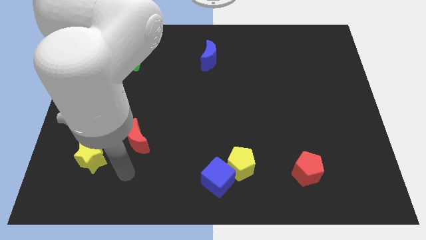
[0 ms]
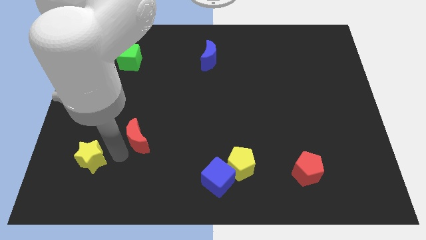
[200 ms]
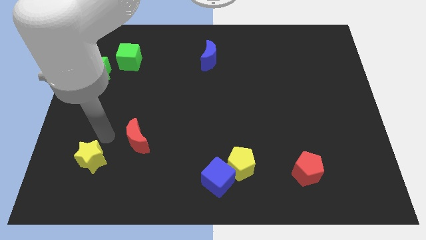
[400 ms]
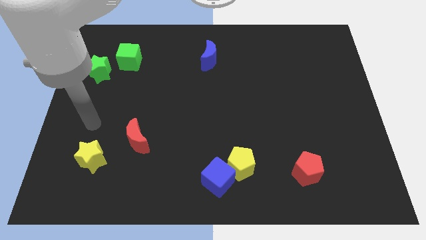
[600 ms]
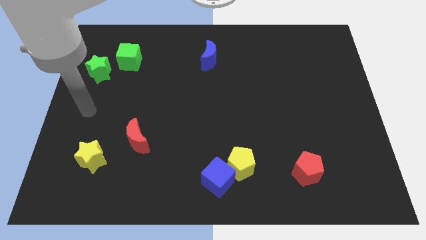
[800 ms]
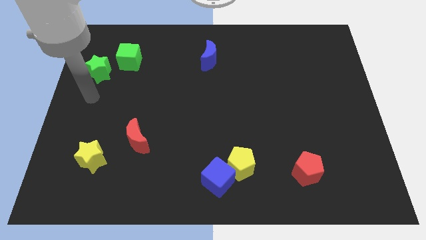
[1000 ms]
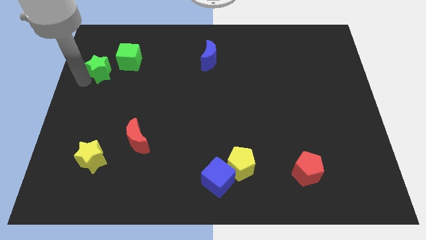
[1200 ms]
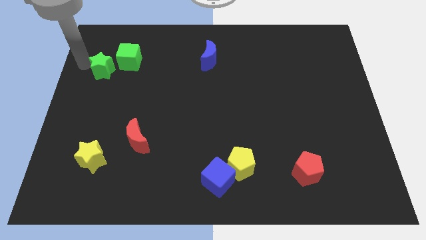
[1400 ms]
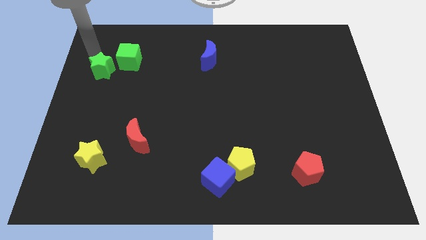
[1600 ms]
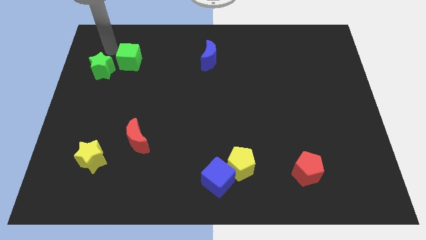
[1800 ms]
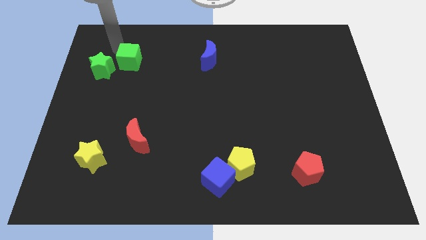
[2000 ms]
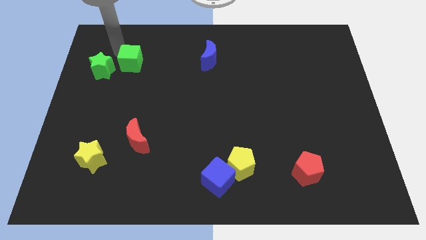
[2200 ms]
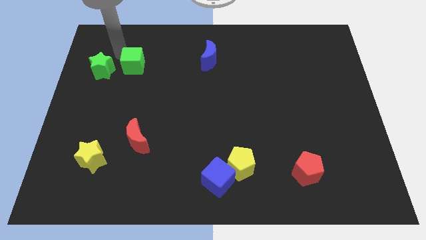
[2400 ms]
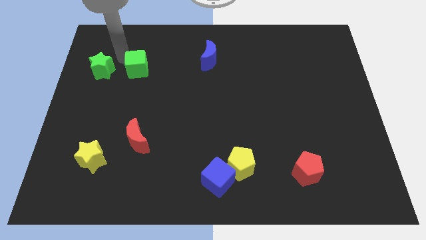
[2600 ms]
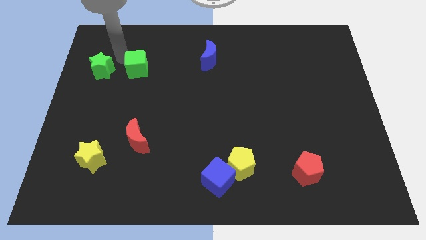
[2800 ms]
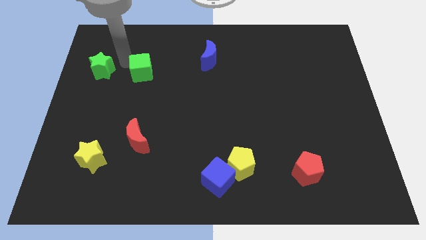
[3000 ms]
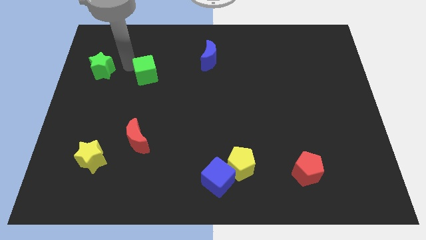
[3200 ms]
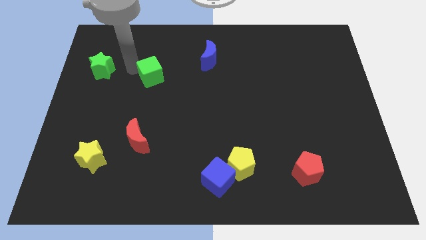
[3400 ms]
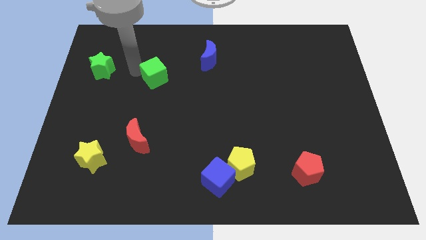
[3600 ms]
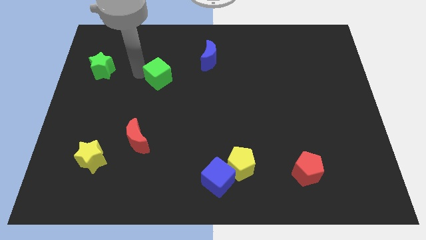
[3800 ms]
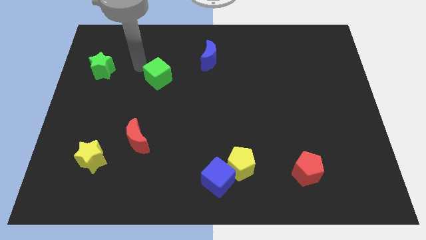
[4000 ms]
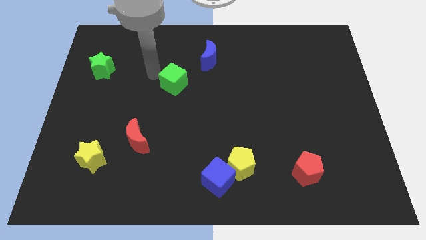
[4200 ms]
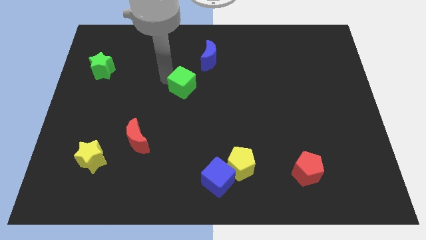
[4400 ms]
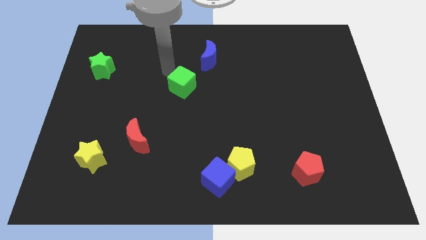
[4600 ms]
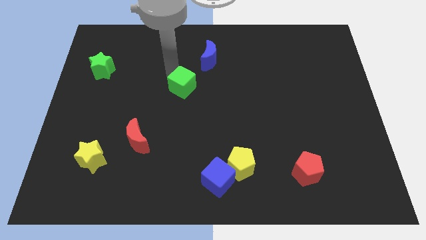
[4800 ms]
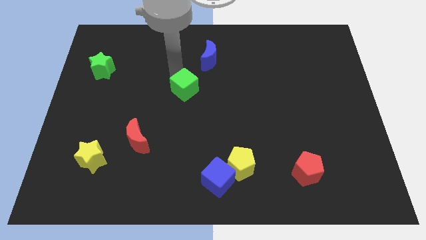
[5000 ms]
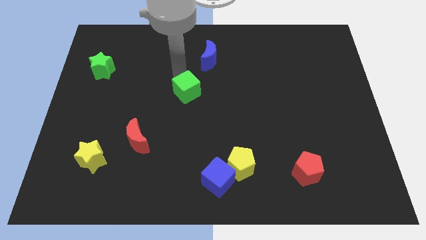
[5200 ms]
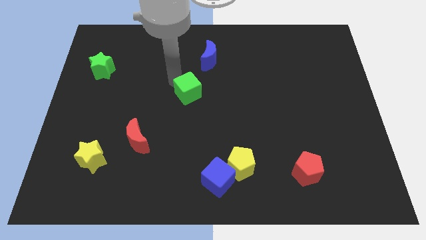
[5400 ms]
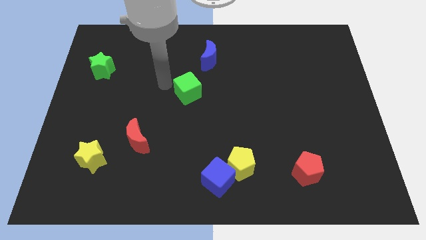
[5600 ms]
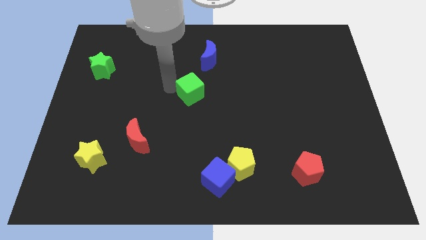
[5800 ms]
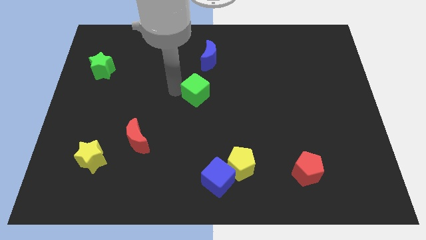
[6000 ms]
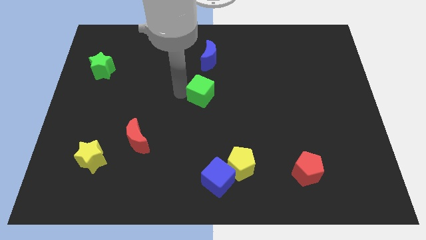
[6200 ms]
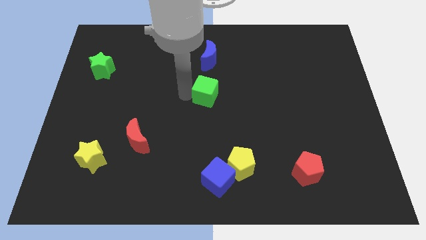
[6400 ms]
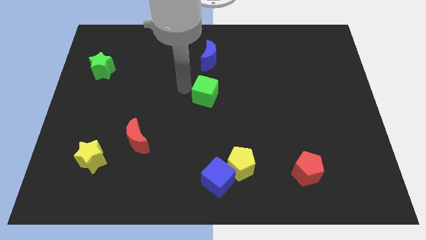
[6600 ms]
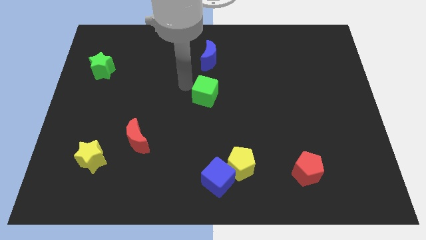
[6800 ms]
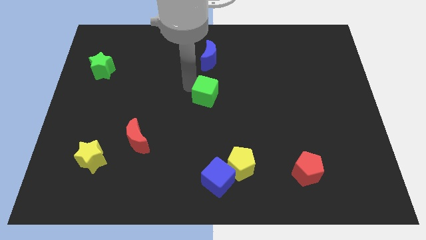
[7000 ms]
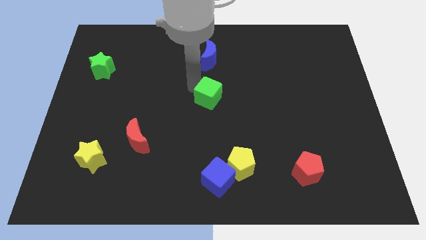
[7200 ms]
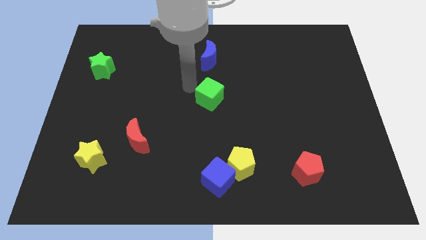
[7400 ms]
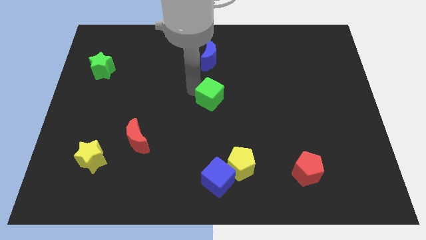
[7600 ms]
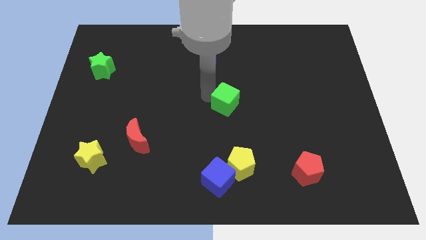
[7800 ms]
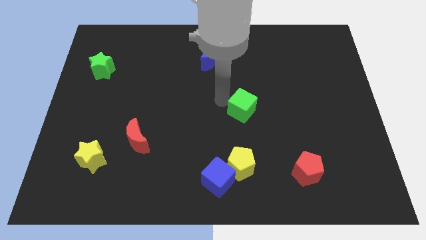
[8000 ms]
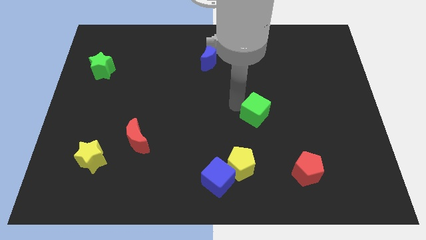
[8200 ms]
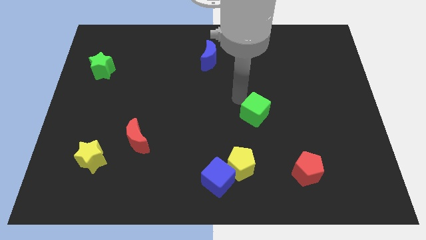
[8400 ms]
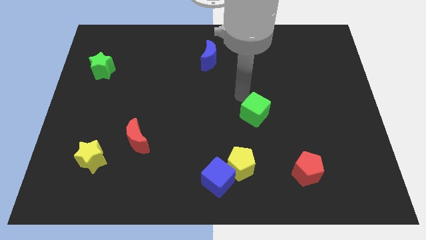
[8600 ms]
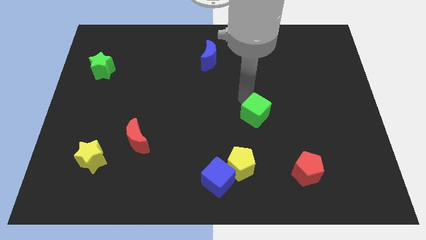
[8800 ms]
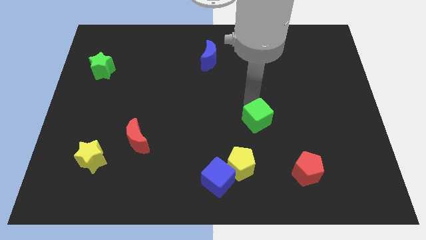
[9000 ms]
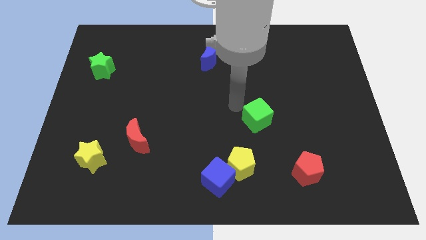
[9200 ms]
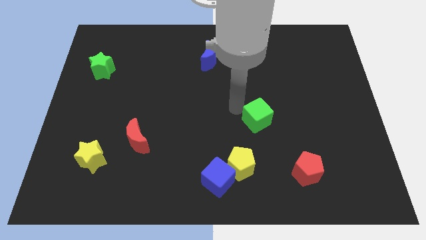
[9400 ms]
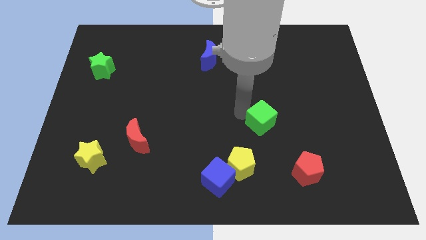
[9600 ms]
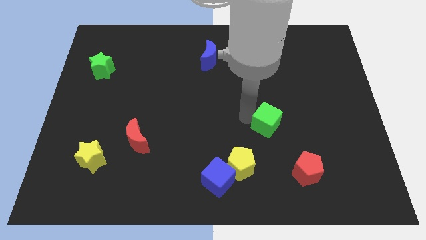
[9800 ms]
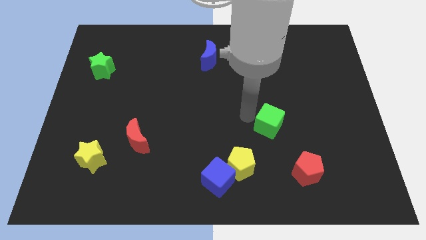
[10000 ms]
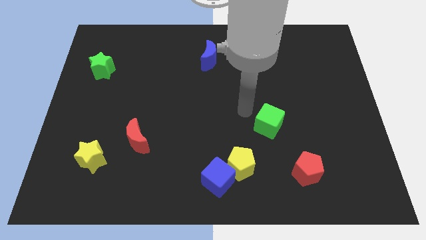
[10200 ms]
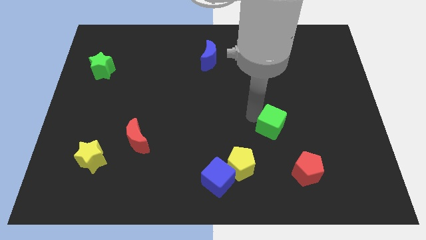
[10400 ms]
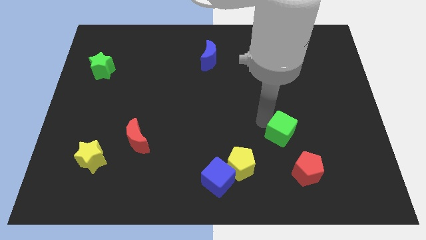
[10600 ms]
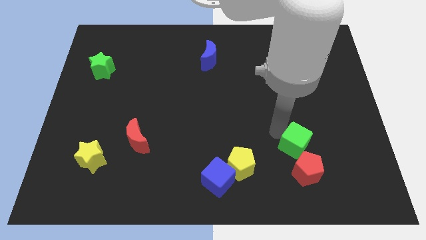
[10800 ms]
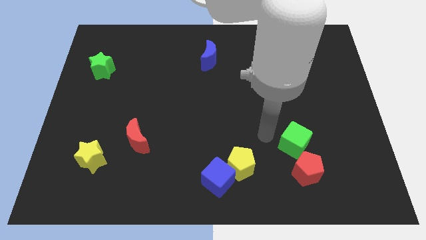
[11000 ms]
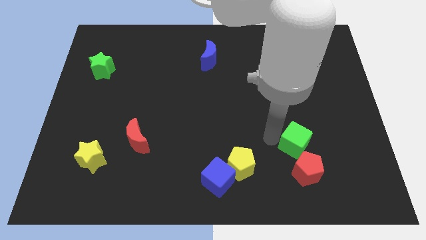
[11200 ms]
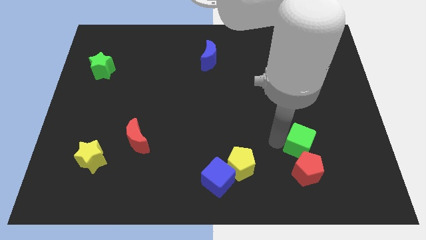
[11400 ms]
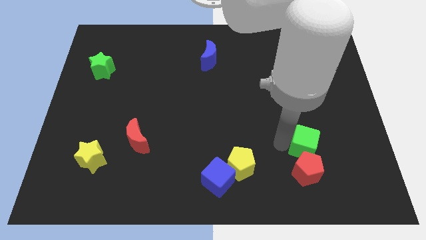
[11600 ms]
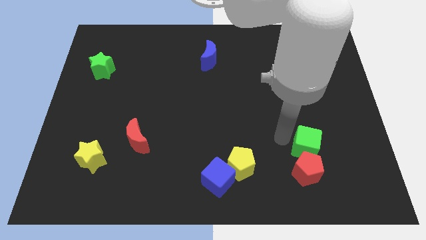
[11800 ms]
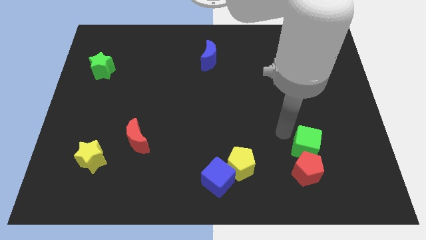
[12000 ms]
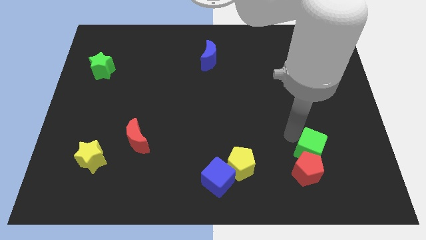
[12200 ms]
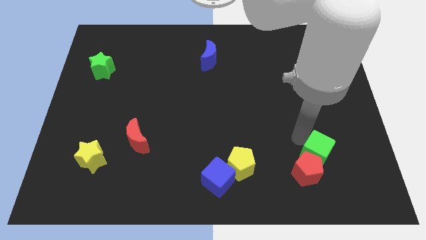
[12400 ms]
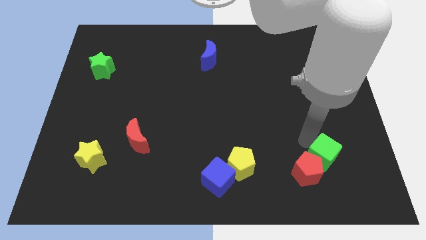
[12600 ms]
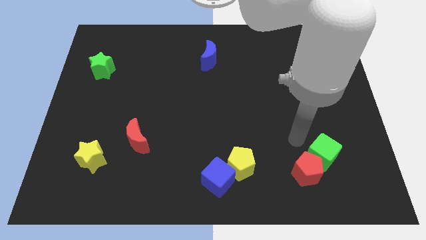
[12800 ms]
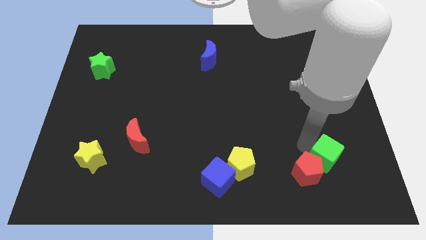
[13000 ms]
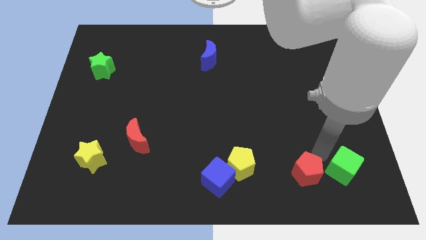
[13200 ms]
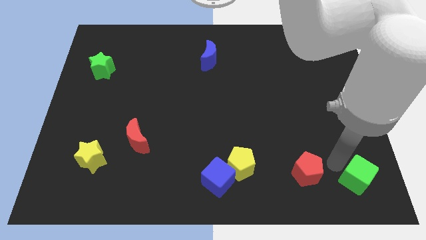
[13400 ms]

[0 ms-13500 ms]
move the green cube to the bottom right

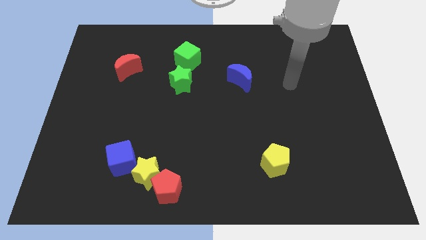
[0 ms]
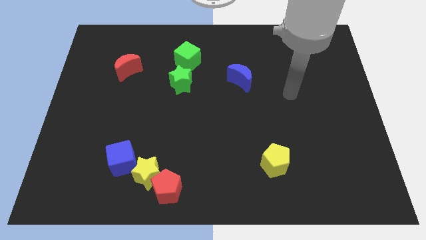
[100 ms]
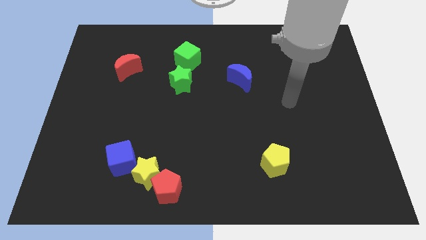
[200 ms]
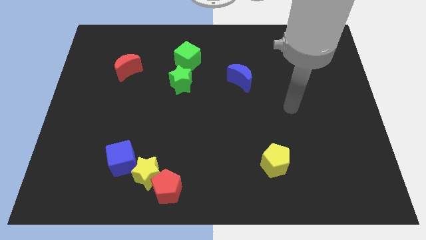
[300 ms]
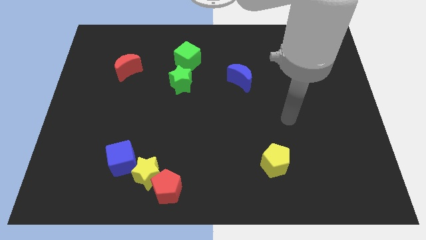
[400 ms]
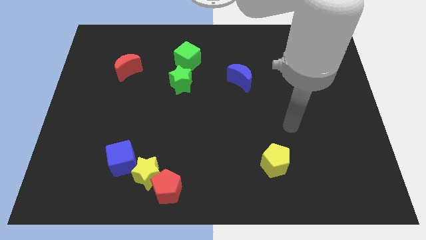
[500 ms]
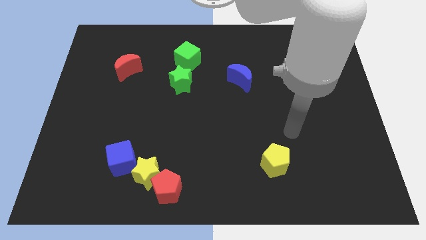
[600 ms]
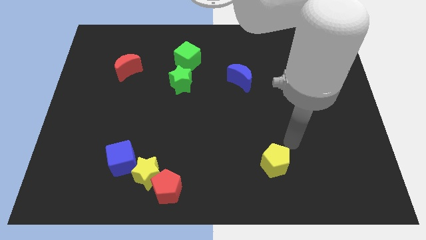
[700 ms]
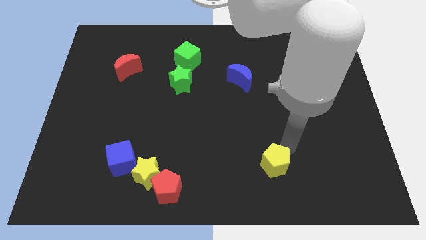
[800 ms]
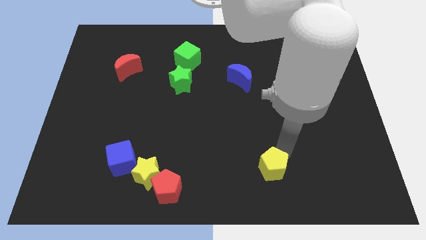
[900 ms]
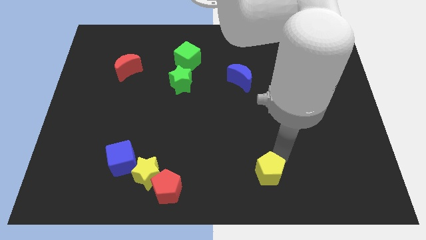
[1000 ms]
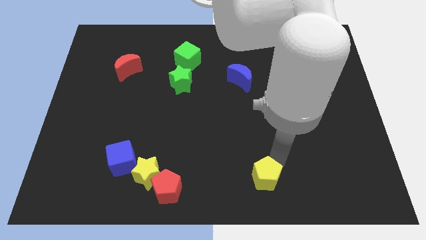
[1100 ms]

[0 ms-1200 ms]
push the yellow pentagon to the bottom
